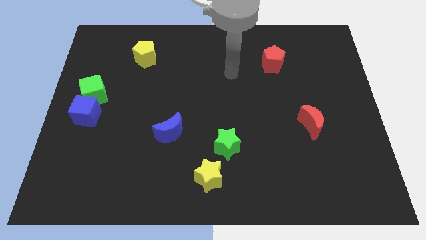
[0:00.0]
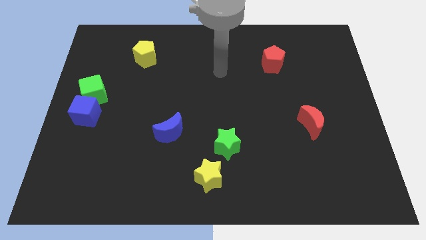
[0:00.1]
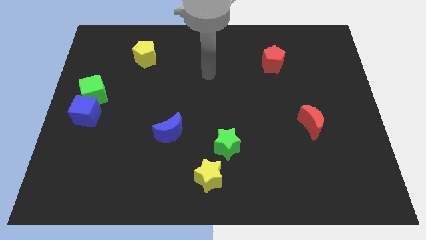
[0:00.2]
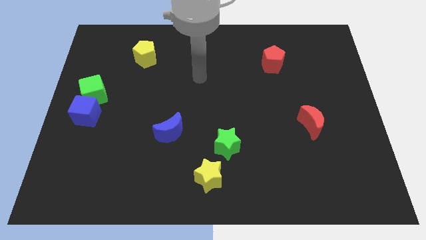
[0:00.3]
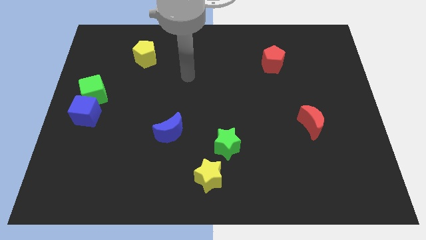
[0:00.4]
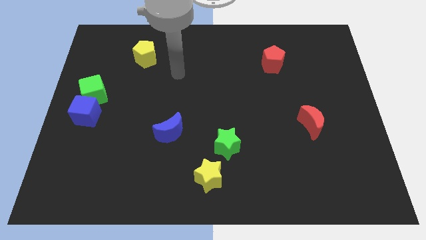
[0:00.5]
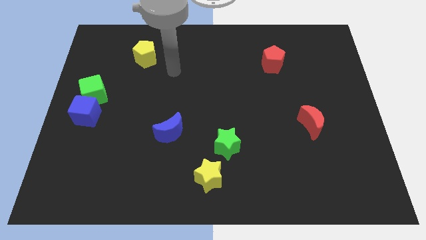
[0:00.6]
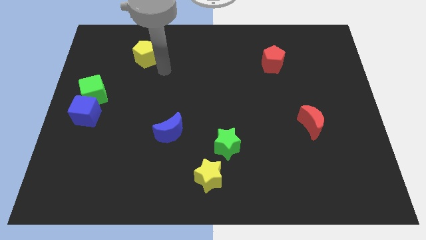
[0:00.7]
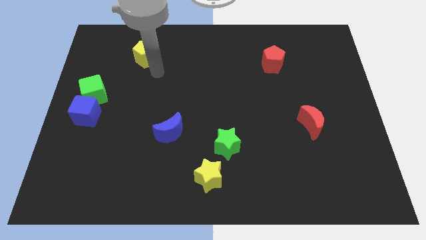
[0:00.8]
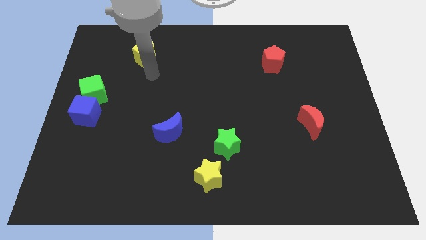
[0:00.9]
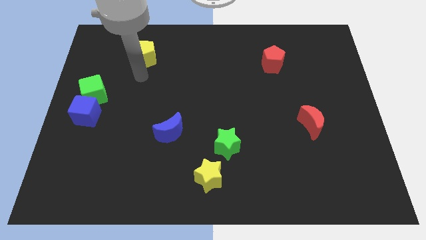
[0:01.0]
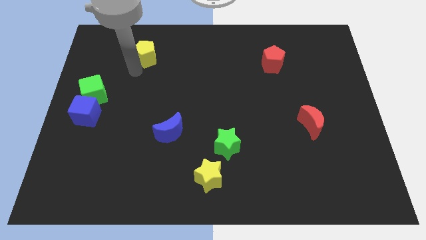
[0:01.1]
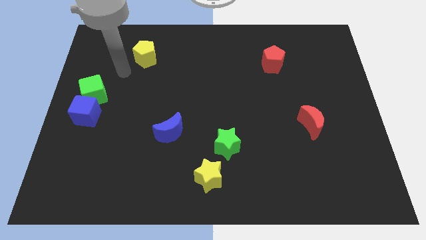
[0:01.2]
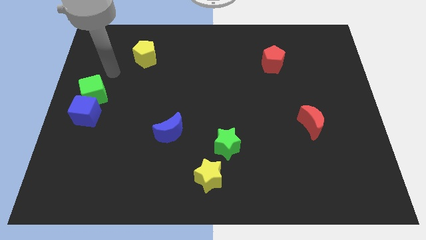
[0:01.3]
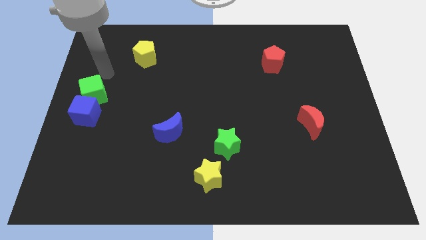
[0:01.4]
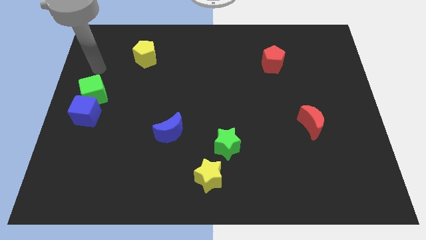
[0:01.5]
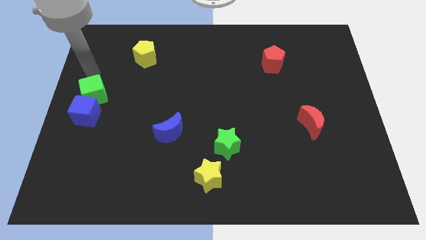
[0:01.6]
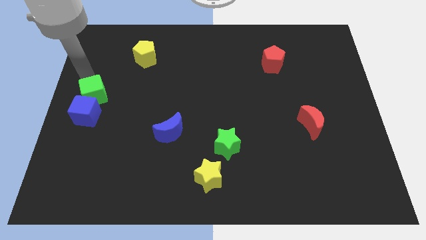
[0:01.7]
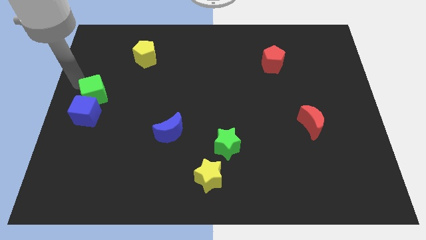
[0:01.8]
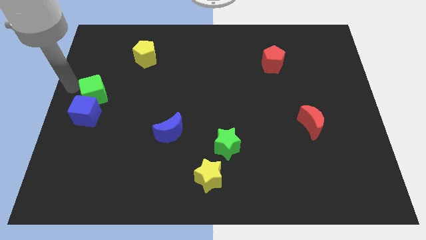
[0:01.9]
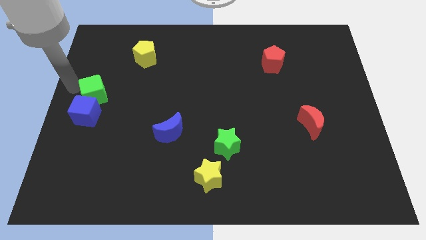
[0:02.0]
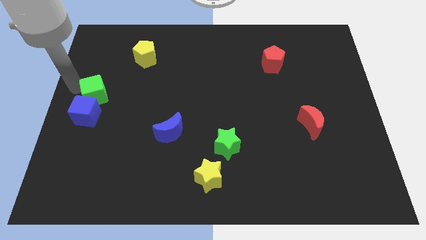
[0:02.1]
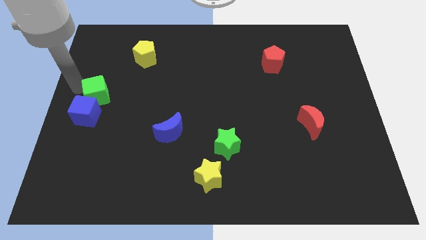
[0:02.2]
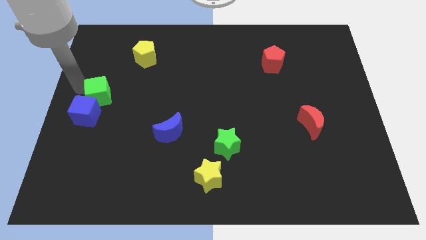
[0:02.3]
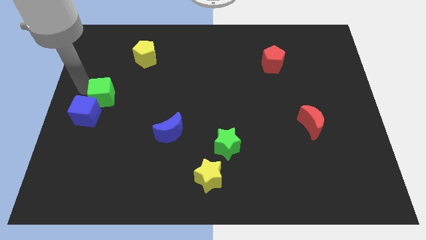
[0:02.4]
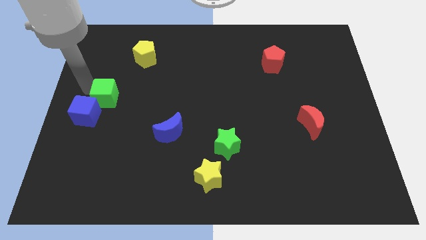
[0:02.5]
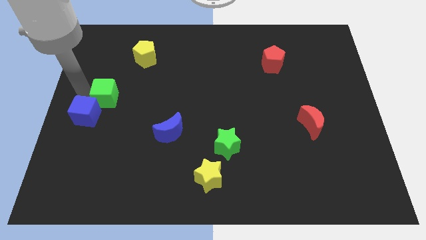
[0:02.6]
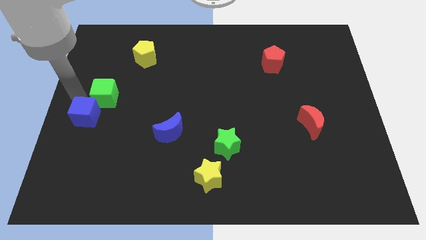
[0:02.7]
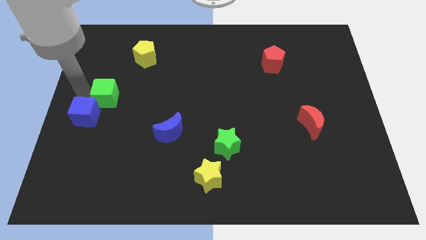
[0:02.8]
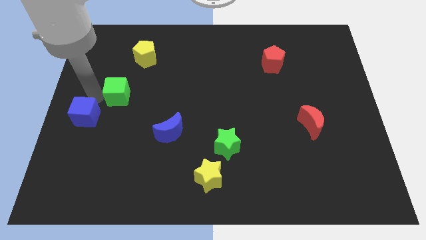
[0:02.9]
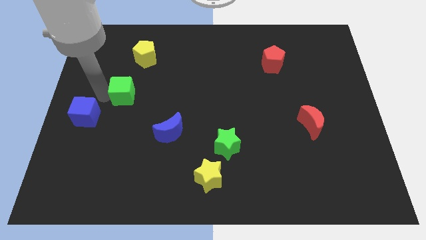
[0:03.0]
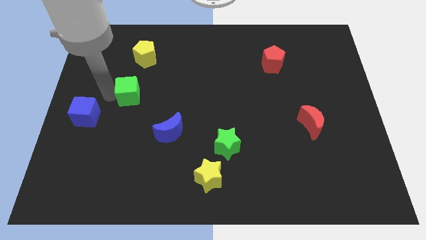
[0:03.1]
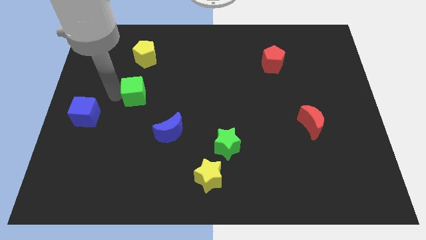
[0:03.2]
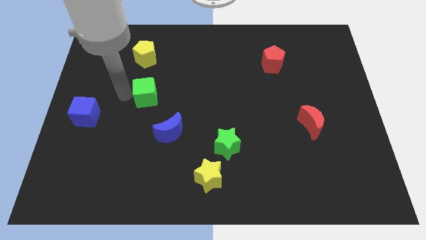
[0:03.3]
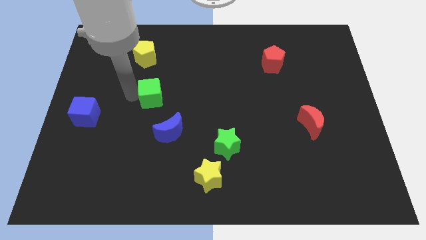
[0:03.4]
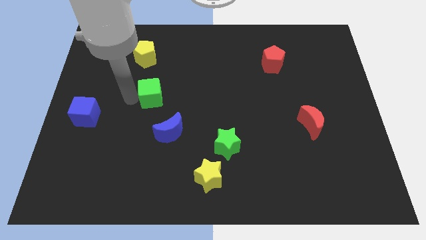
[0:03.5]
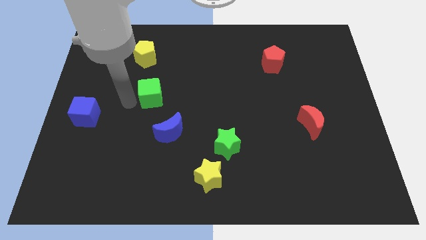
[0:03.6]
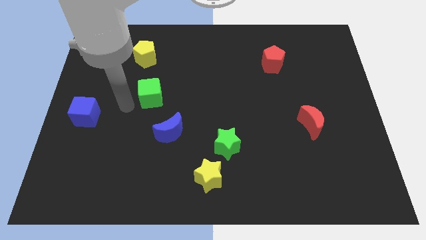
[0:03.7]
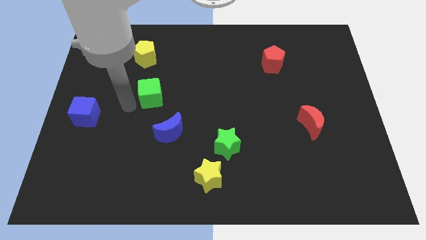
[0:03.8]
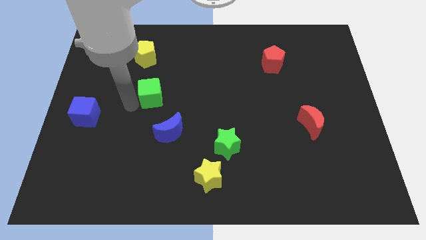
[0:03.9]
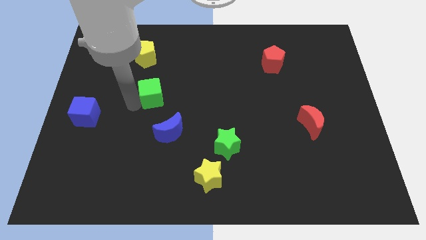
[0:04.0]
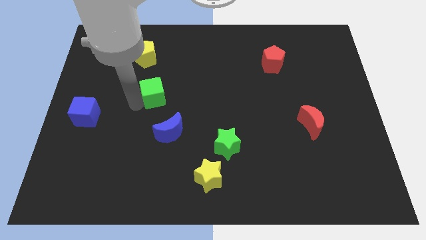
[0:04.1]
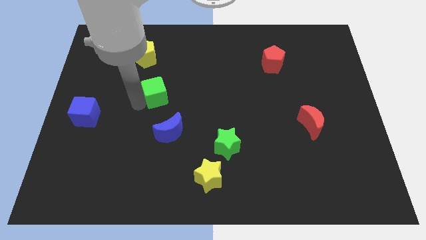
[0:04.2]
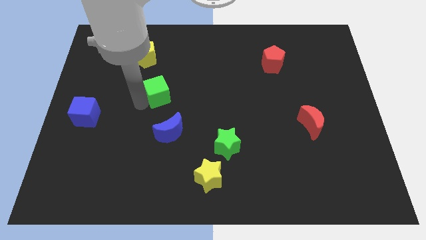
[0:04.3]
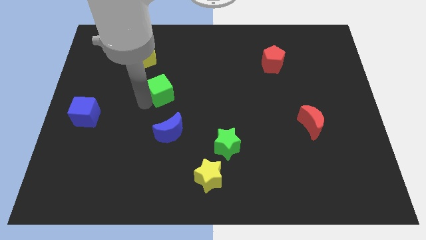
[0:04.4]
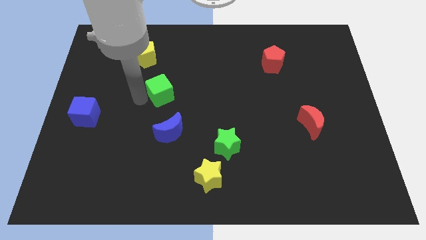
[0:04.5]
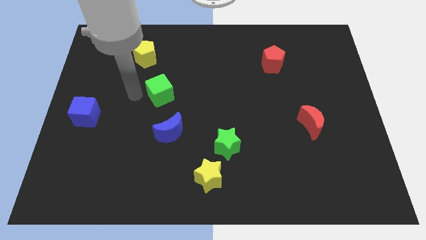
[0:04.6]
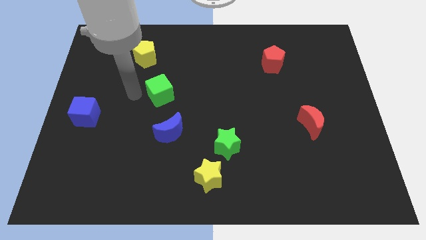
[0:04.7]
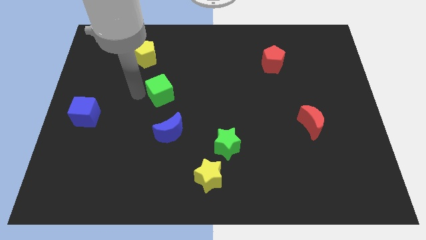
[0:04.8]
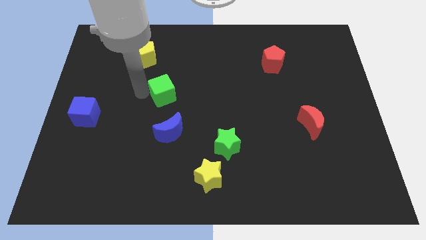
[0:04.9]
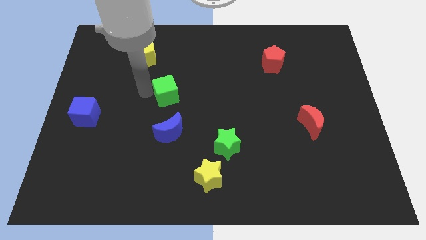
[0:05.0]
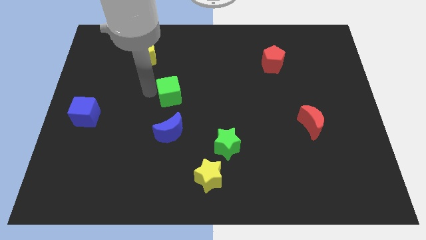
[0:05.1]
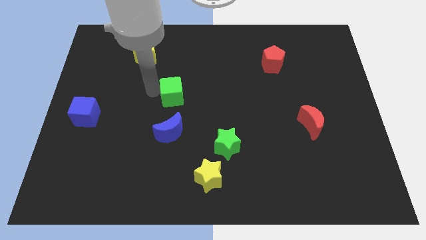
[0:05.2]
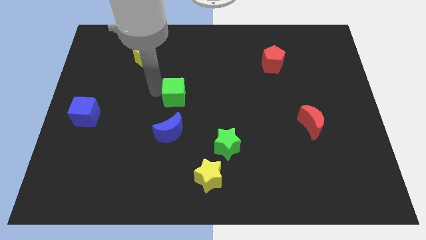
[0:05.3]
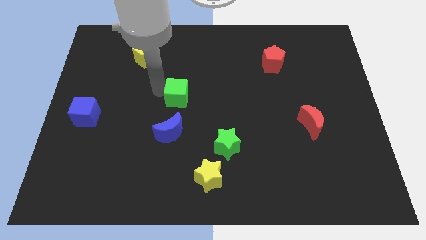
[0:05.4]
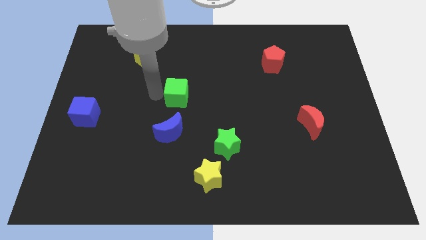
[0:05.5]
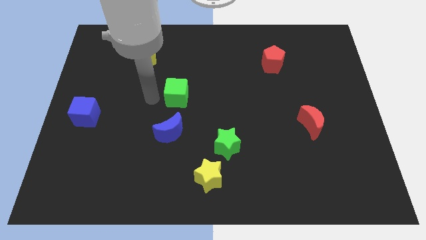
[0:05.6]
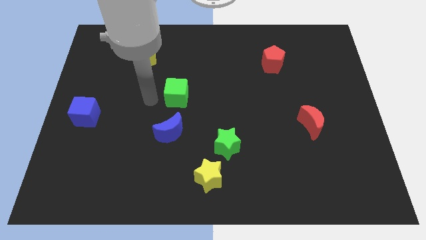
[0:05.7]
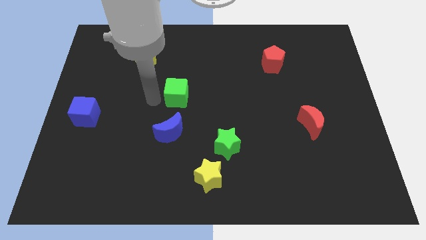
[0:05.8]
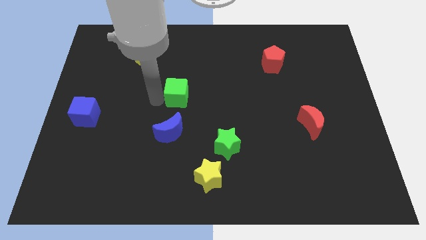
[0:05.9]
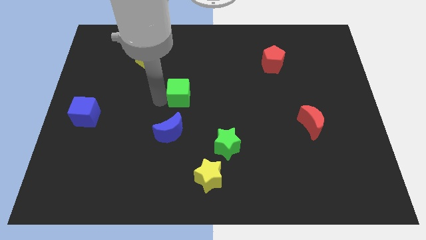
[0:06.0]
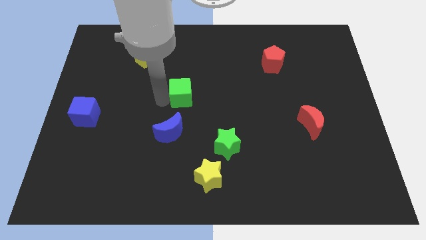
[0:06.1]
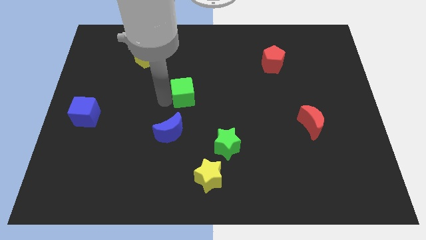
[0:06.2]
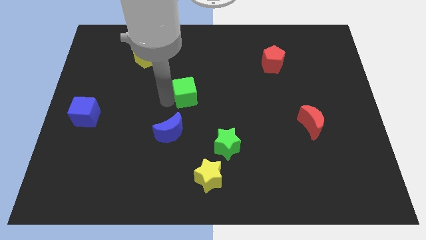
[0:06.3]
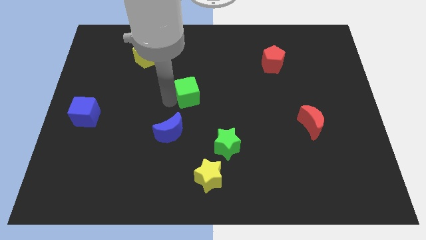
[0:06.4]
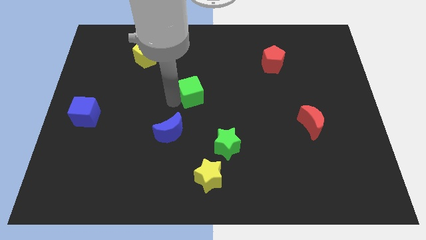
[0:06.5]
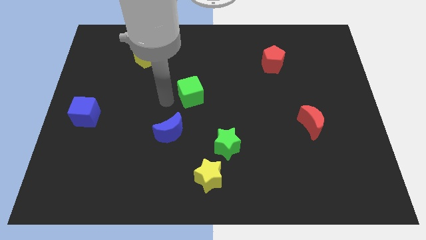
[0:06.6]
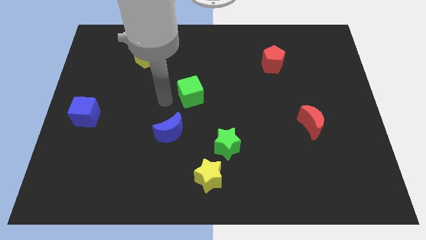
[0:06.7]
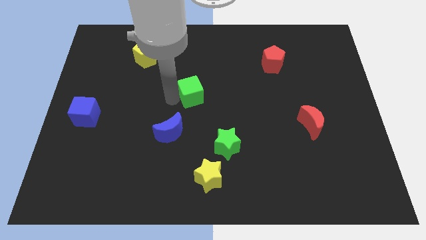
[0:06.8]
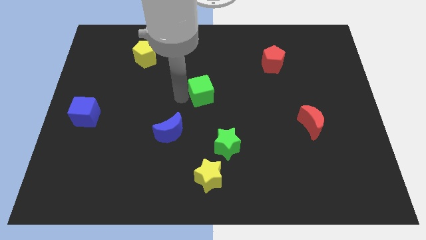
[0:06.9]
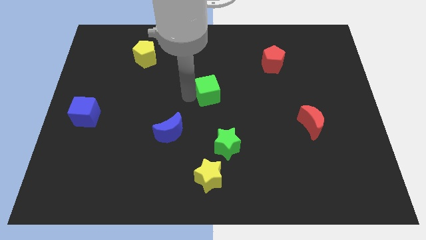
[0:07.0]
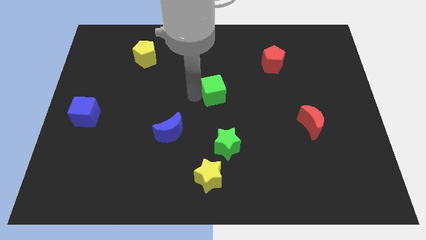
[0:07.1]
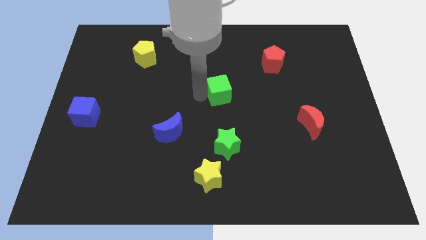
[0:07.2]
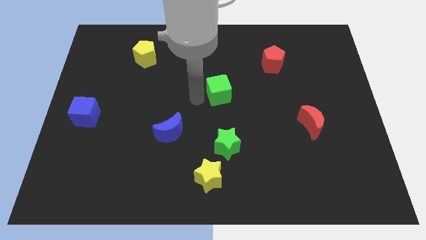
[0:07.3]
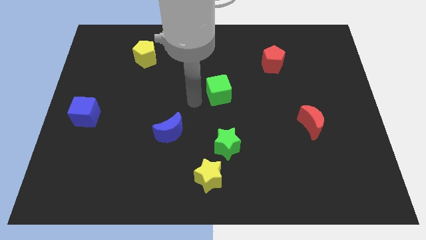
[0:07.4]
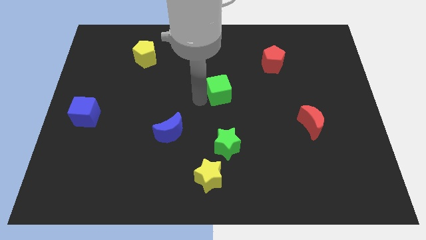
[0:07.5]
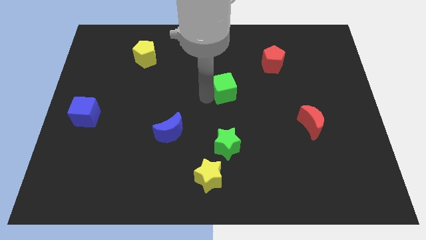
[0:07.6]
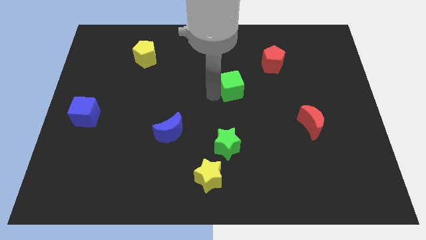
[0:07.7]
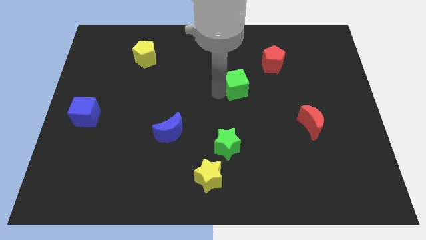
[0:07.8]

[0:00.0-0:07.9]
put the green cube diagonally down and to the left of the red pentagon
